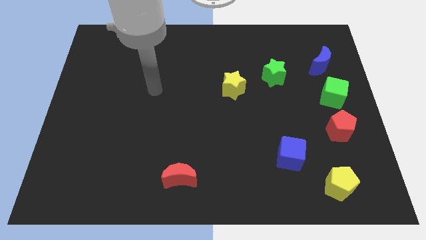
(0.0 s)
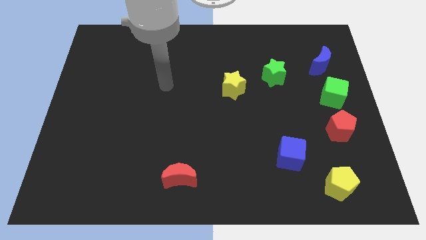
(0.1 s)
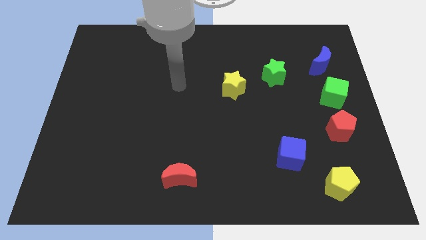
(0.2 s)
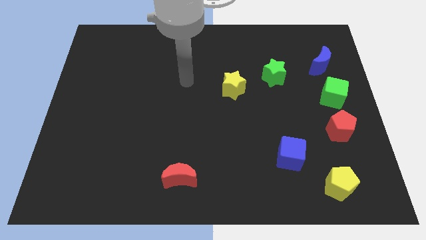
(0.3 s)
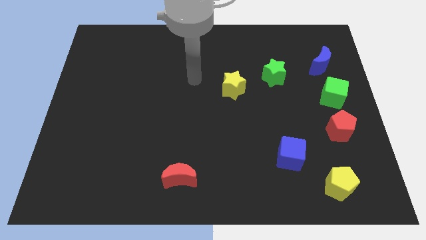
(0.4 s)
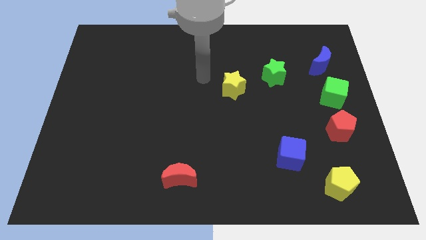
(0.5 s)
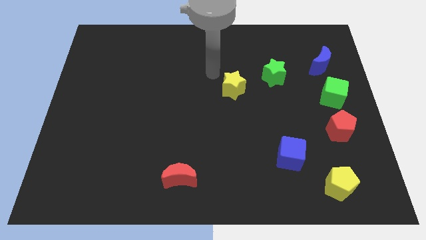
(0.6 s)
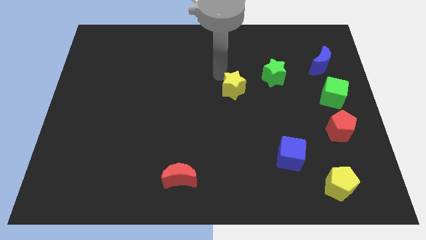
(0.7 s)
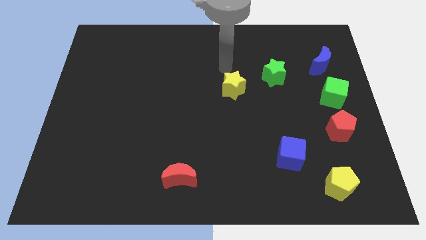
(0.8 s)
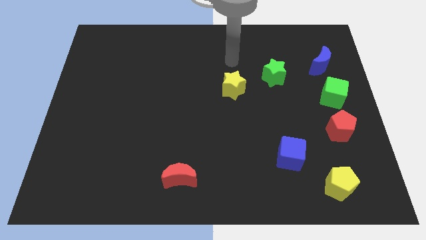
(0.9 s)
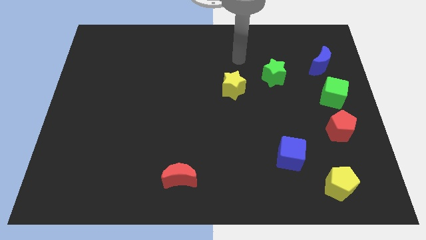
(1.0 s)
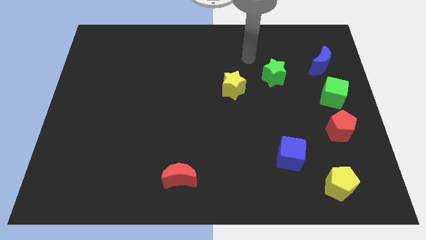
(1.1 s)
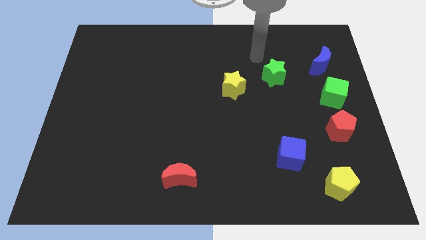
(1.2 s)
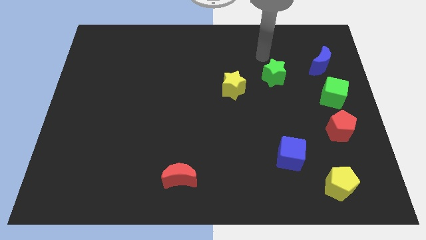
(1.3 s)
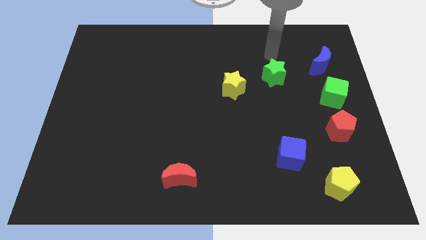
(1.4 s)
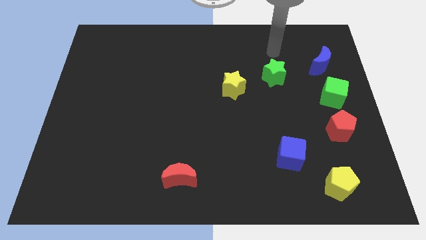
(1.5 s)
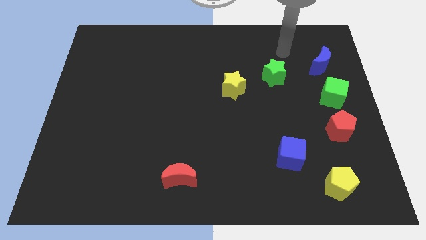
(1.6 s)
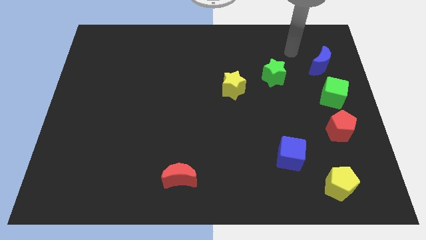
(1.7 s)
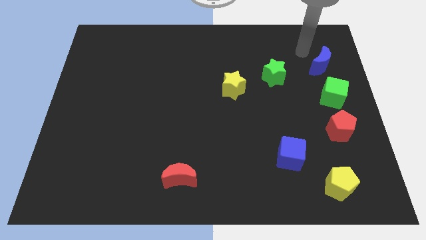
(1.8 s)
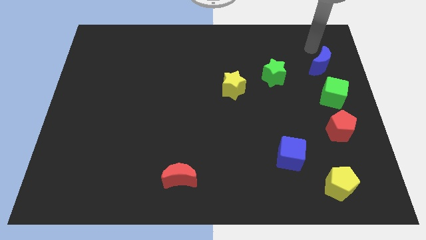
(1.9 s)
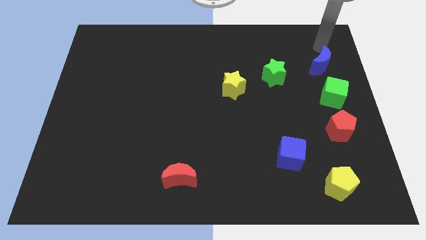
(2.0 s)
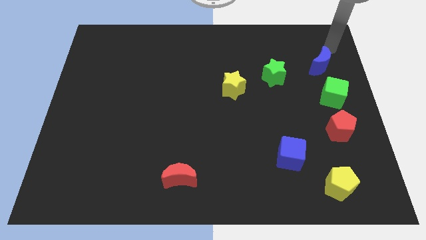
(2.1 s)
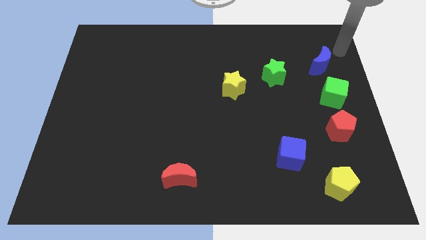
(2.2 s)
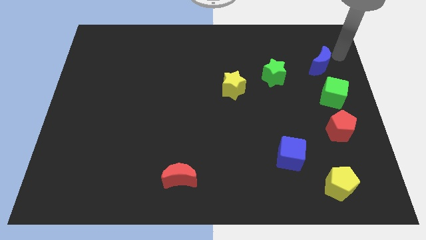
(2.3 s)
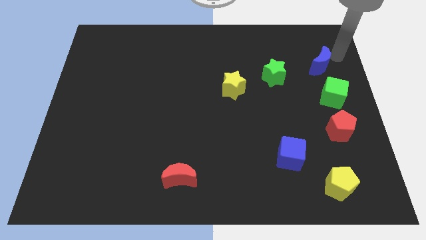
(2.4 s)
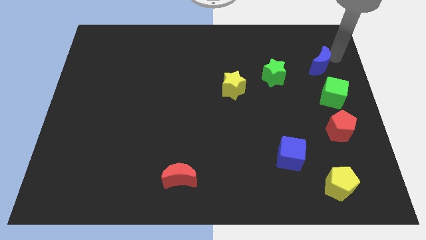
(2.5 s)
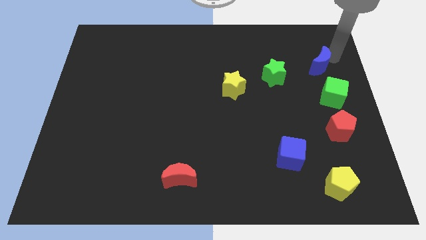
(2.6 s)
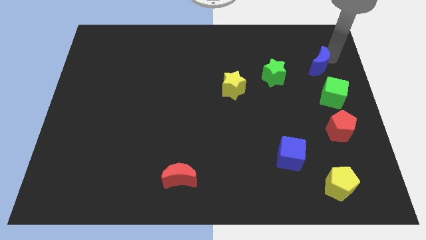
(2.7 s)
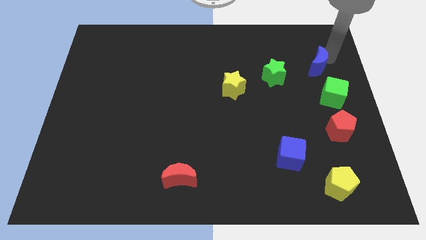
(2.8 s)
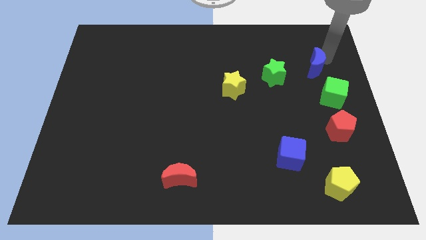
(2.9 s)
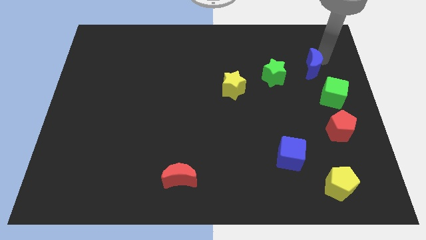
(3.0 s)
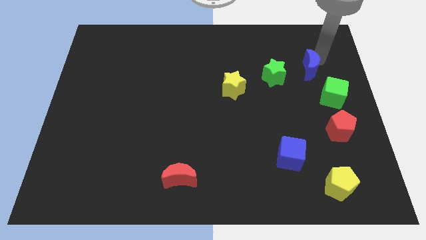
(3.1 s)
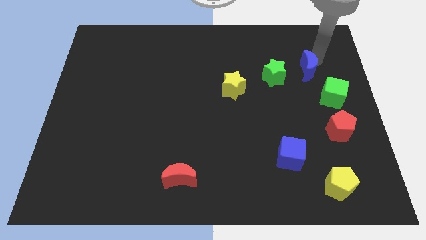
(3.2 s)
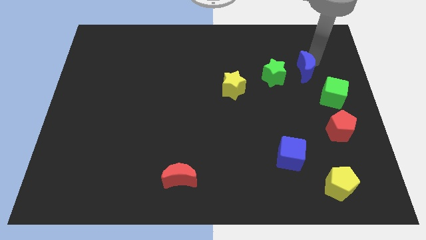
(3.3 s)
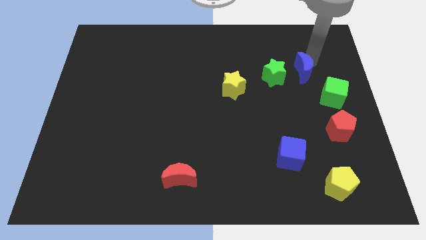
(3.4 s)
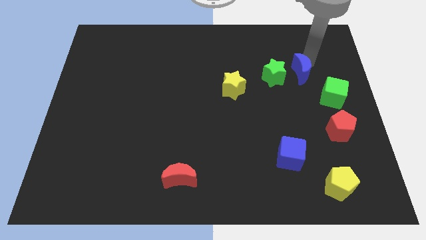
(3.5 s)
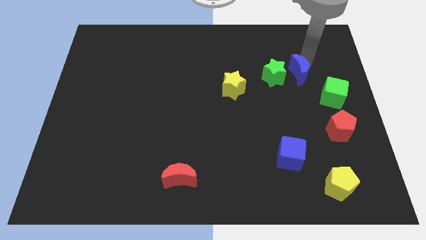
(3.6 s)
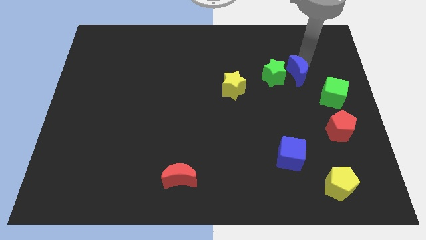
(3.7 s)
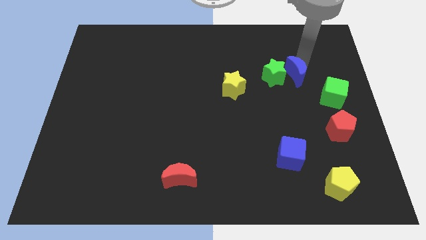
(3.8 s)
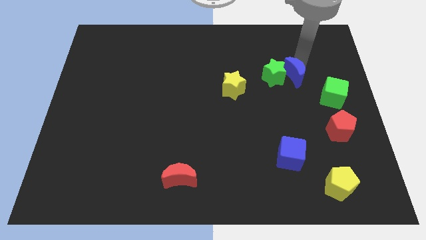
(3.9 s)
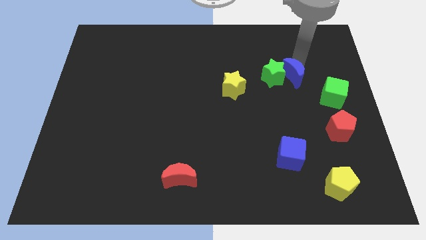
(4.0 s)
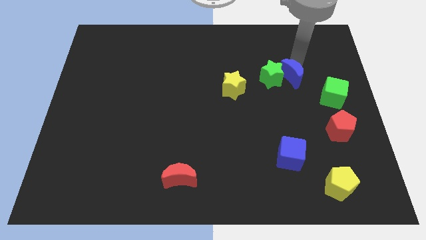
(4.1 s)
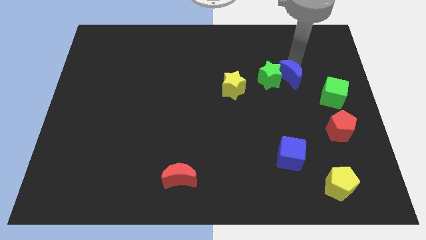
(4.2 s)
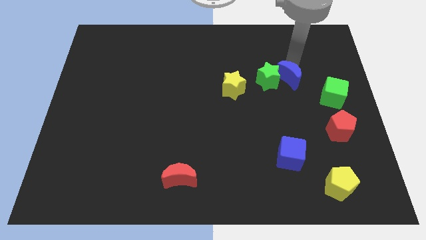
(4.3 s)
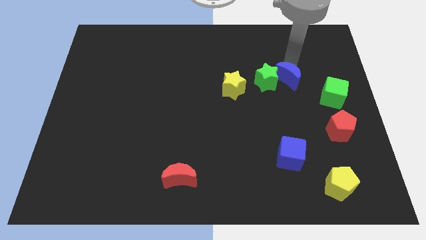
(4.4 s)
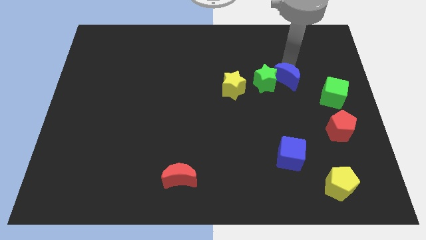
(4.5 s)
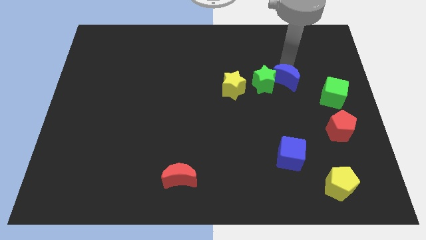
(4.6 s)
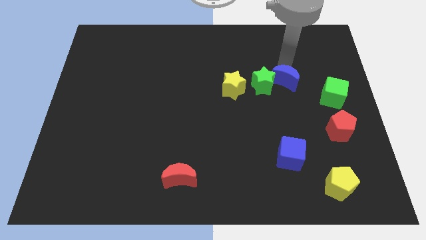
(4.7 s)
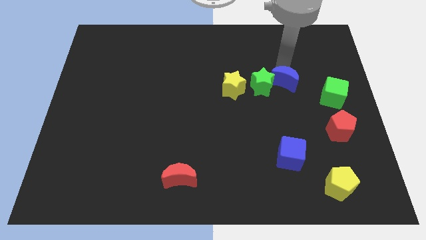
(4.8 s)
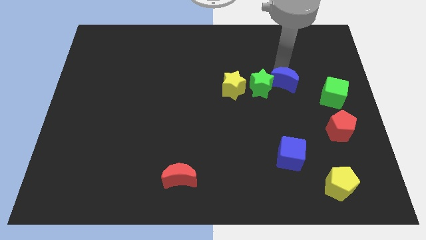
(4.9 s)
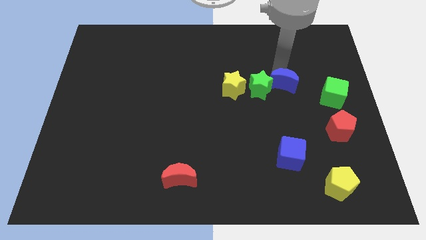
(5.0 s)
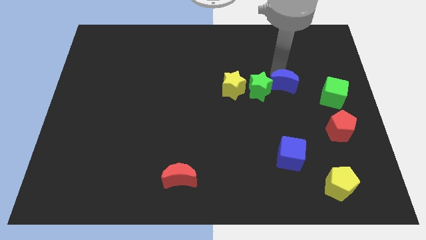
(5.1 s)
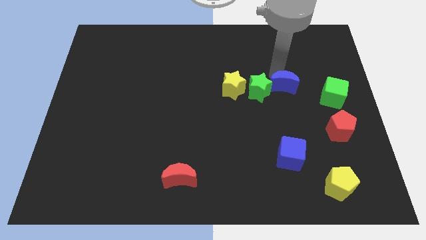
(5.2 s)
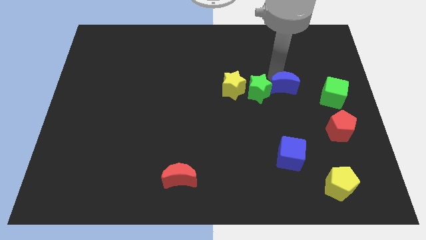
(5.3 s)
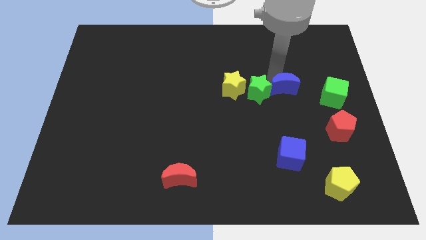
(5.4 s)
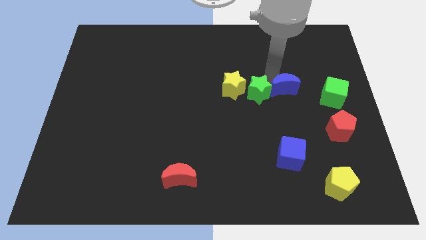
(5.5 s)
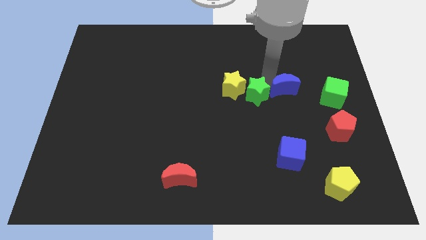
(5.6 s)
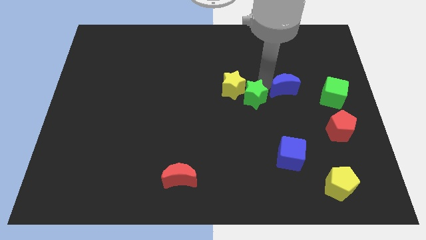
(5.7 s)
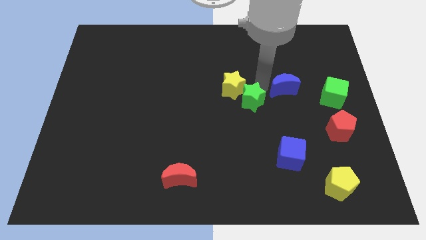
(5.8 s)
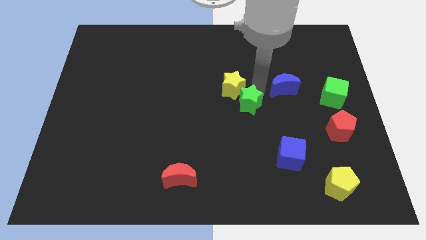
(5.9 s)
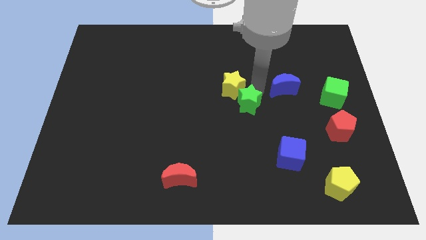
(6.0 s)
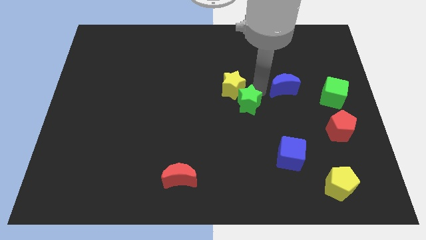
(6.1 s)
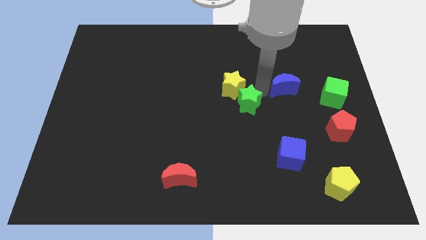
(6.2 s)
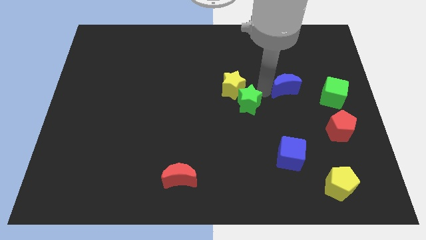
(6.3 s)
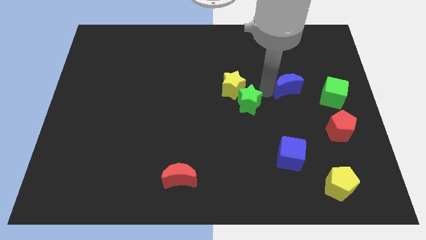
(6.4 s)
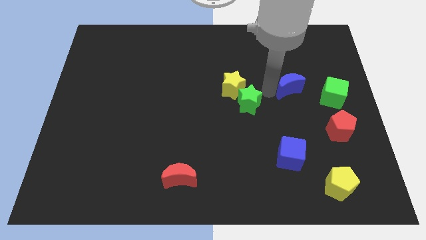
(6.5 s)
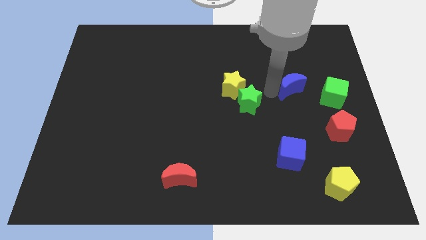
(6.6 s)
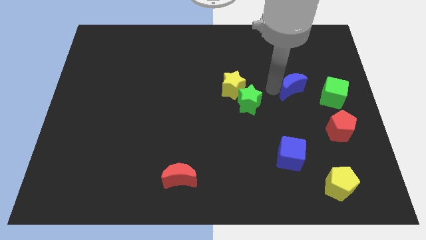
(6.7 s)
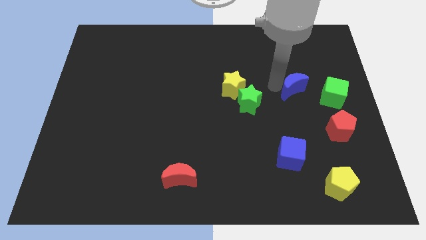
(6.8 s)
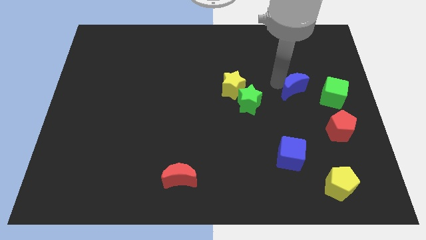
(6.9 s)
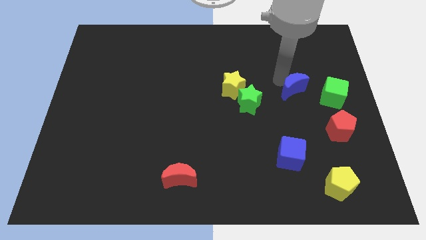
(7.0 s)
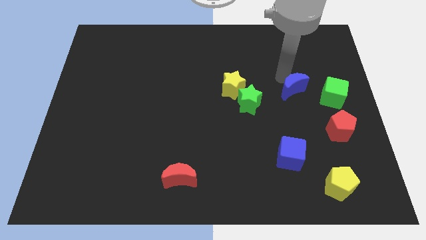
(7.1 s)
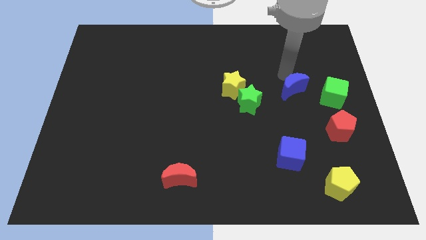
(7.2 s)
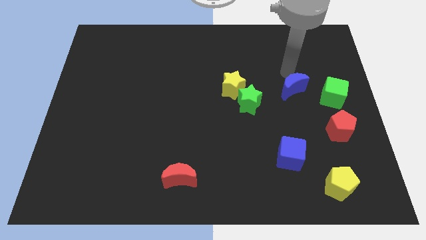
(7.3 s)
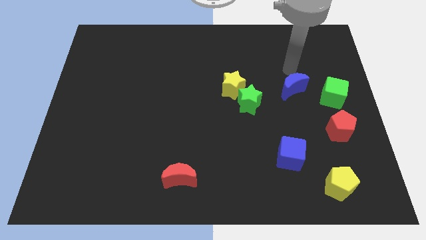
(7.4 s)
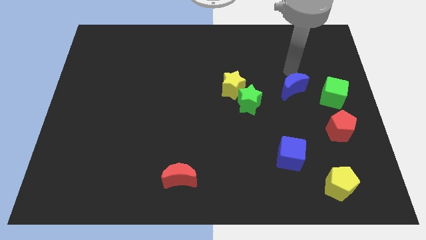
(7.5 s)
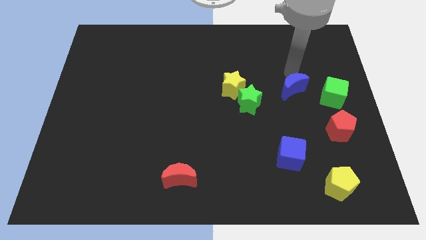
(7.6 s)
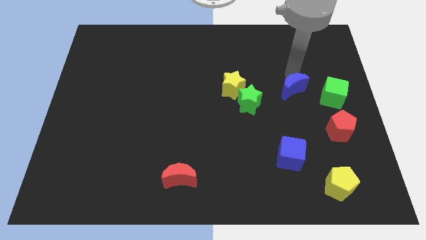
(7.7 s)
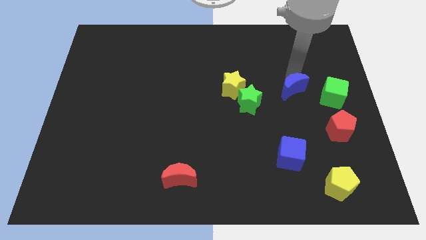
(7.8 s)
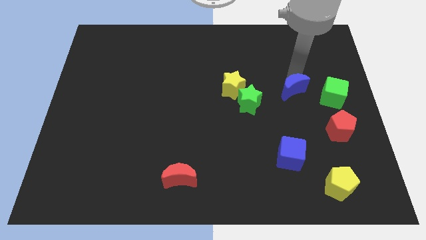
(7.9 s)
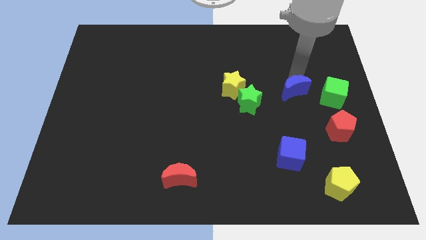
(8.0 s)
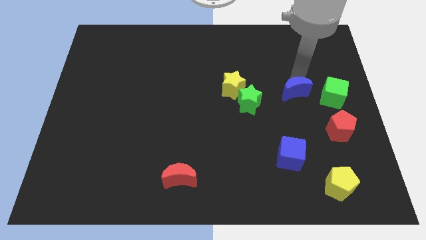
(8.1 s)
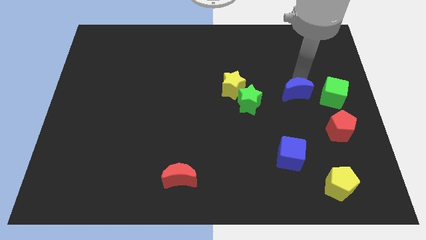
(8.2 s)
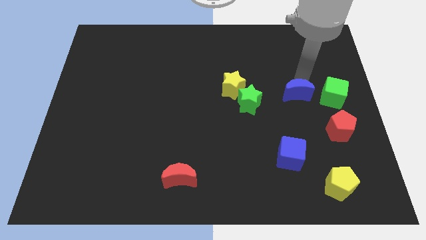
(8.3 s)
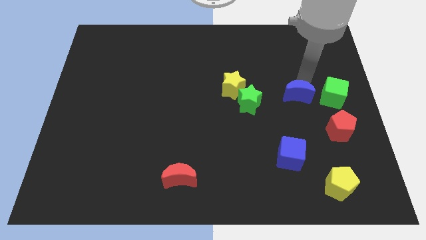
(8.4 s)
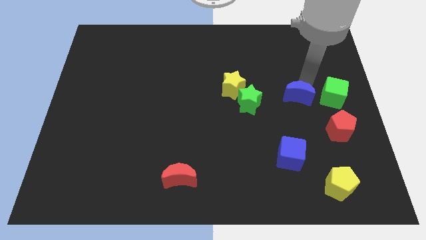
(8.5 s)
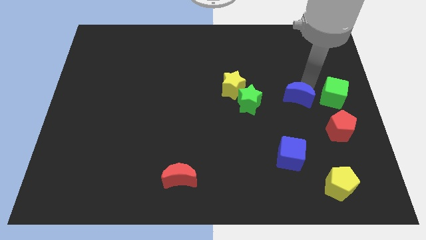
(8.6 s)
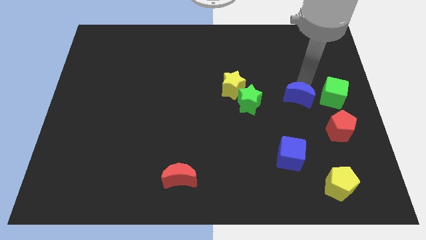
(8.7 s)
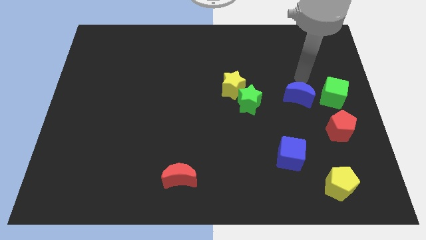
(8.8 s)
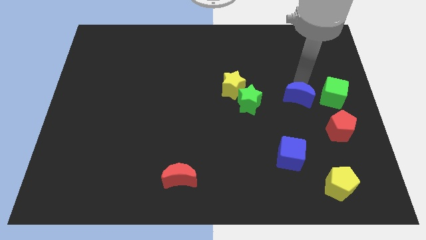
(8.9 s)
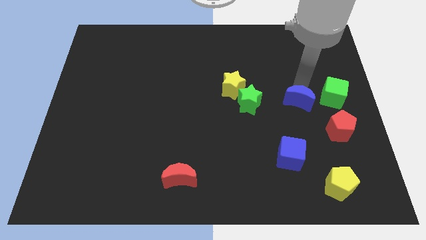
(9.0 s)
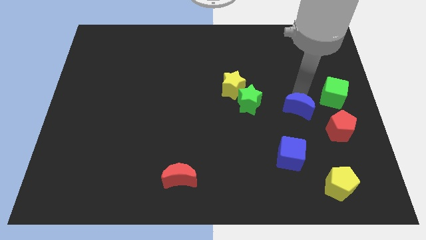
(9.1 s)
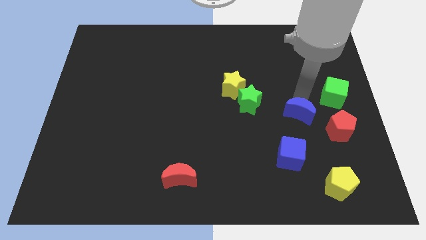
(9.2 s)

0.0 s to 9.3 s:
move the blue moon to the left side of the red pentagon
